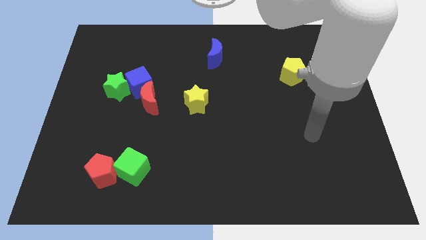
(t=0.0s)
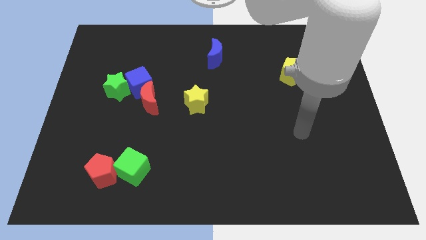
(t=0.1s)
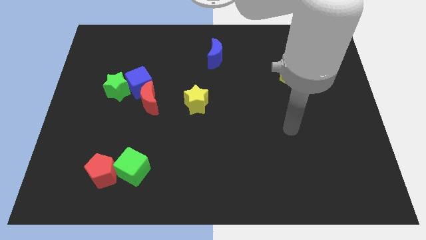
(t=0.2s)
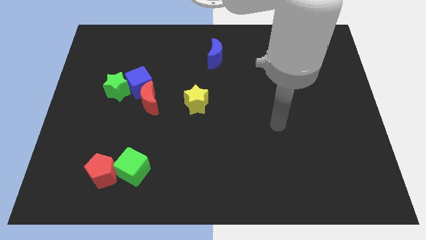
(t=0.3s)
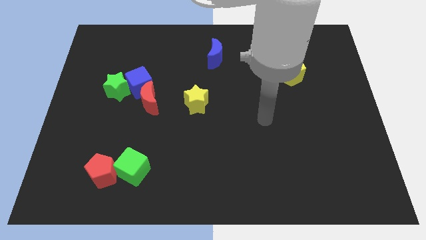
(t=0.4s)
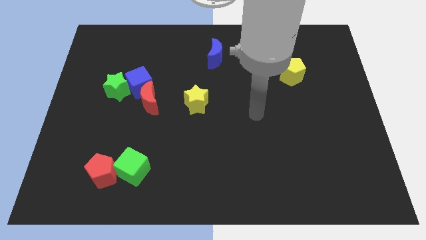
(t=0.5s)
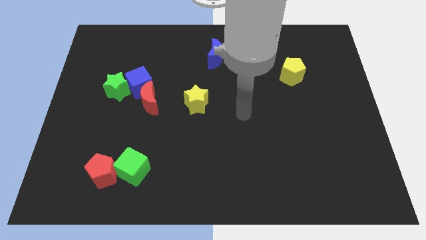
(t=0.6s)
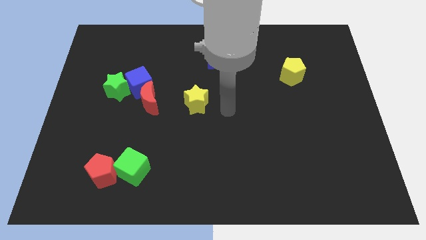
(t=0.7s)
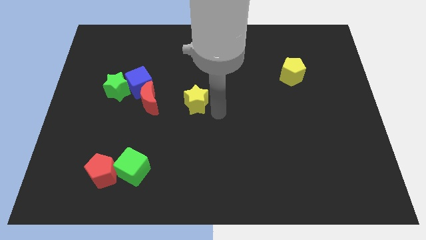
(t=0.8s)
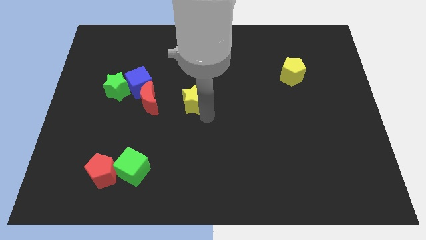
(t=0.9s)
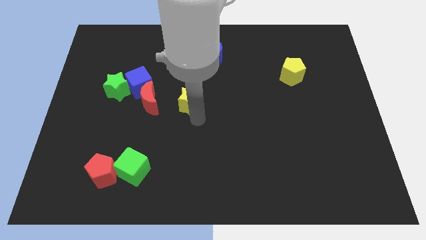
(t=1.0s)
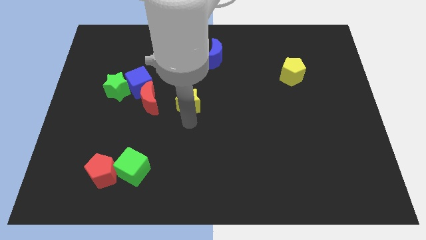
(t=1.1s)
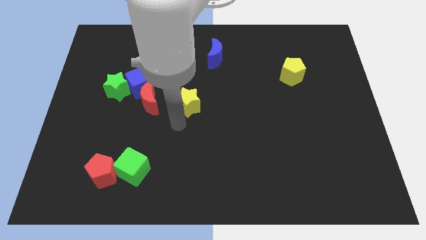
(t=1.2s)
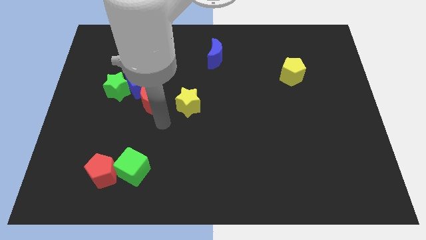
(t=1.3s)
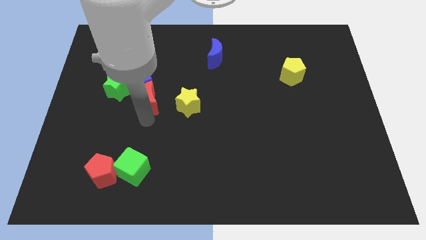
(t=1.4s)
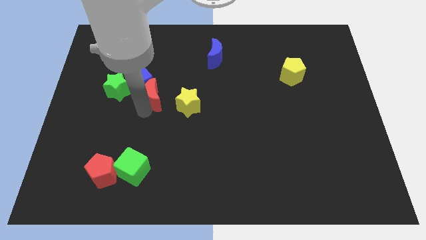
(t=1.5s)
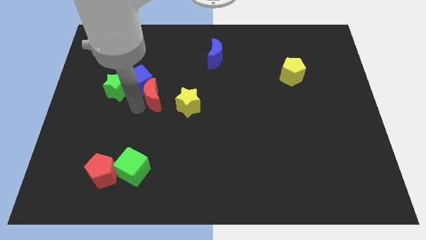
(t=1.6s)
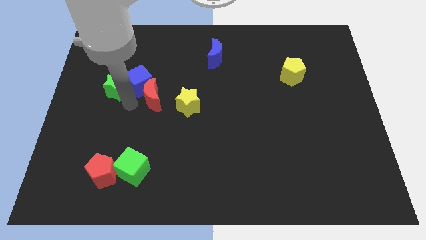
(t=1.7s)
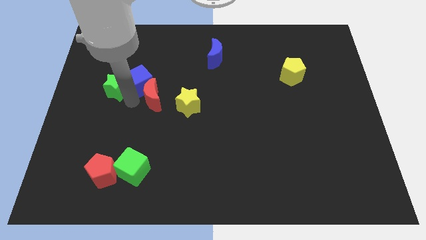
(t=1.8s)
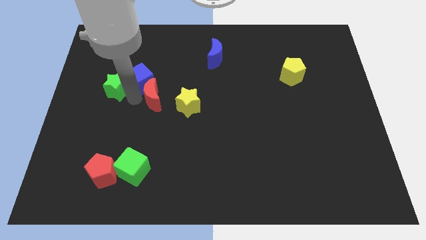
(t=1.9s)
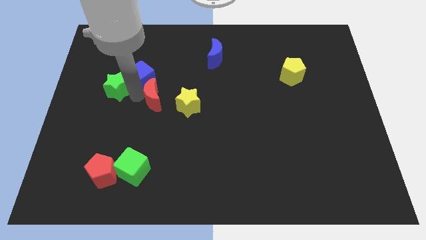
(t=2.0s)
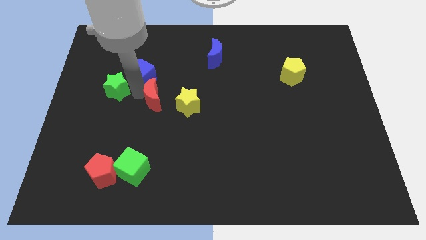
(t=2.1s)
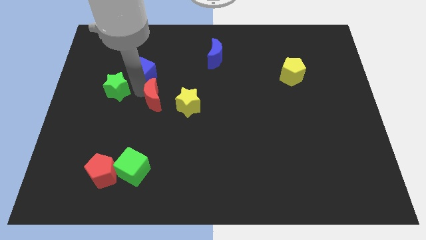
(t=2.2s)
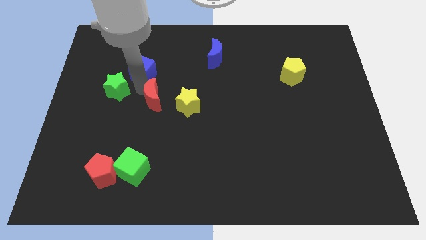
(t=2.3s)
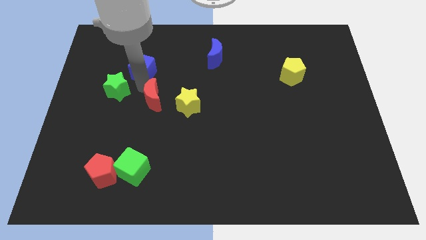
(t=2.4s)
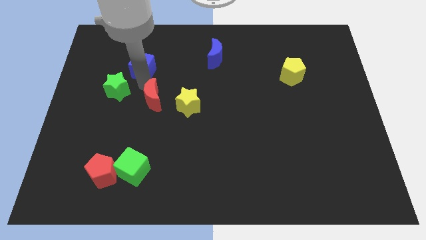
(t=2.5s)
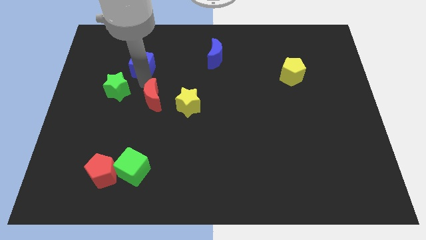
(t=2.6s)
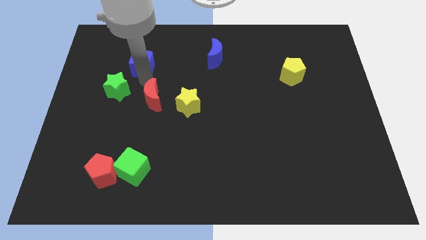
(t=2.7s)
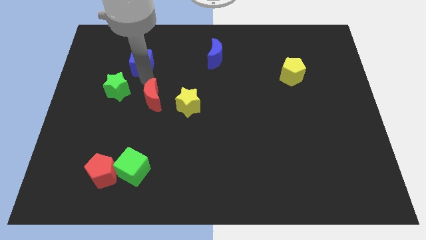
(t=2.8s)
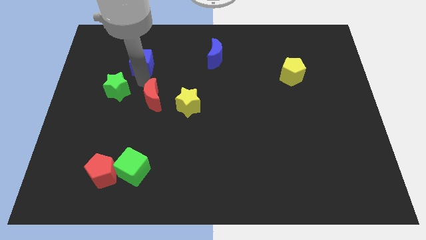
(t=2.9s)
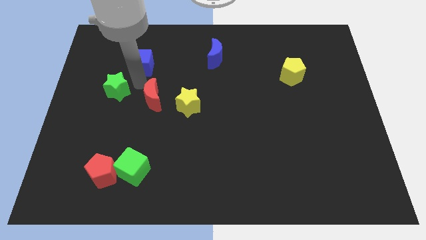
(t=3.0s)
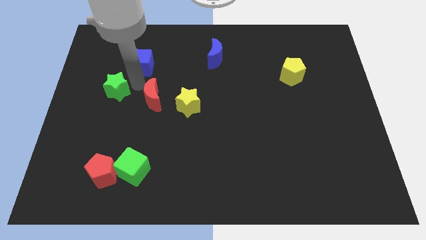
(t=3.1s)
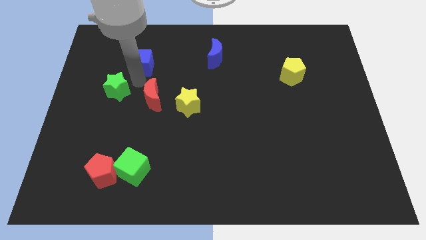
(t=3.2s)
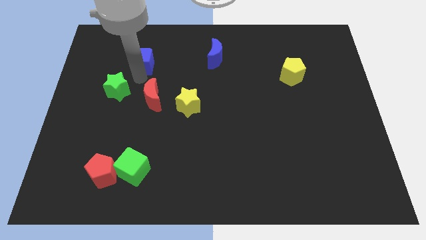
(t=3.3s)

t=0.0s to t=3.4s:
separate the blue cube from the green star and red moon

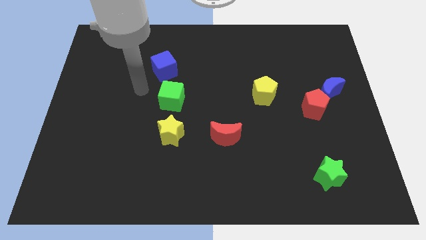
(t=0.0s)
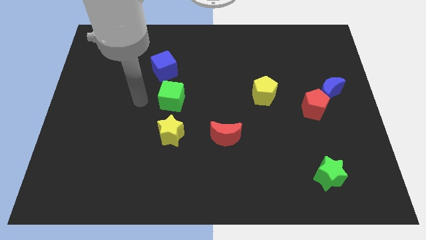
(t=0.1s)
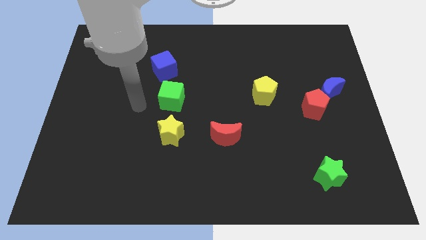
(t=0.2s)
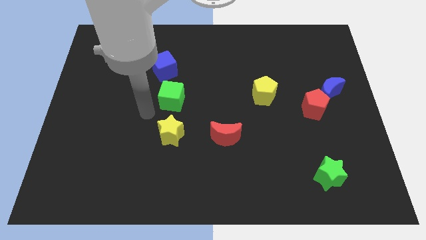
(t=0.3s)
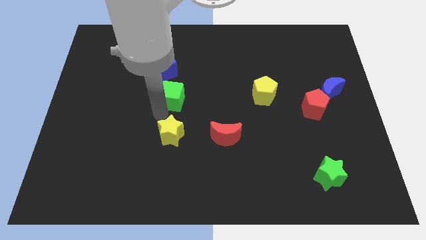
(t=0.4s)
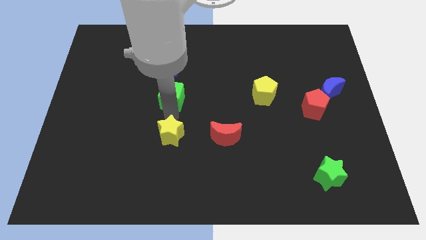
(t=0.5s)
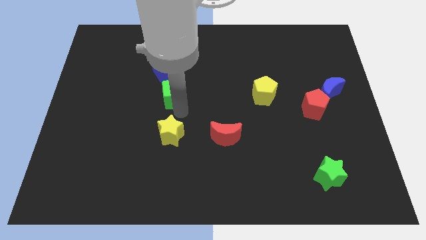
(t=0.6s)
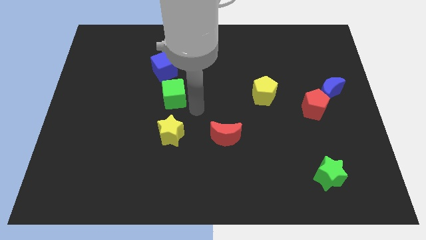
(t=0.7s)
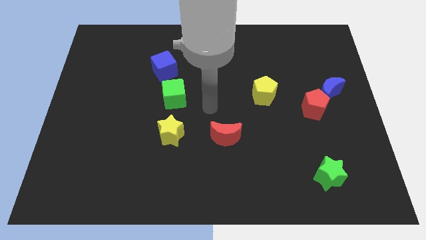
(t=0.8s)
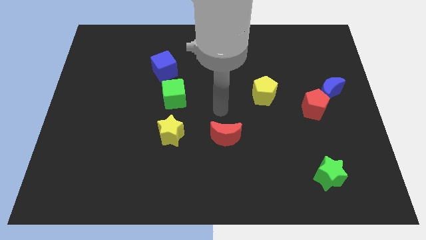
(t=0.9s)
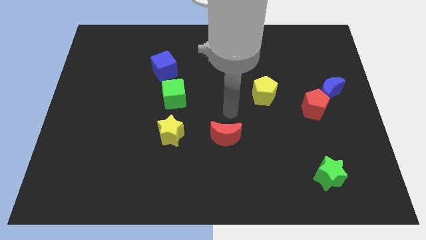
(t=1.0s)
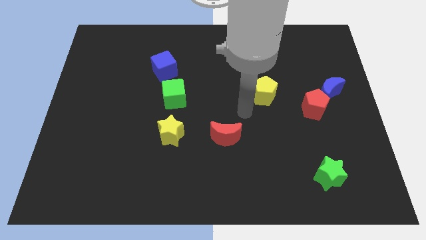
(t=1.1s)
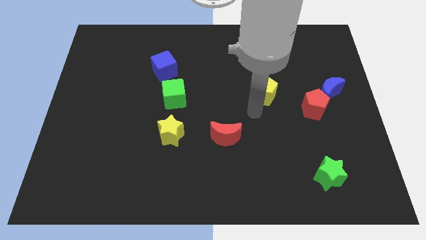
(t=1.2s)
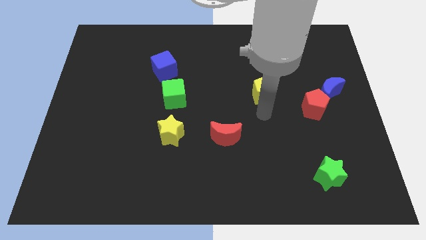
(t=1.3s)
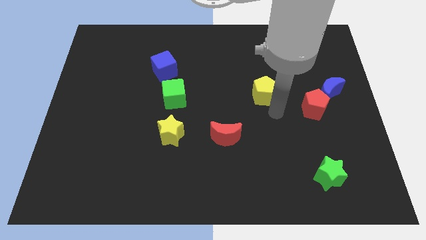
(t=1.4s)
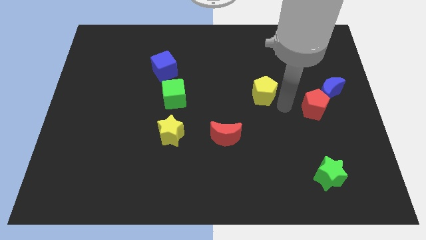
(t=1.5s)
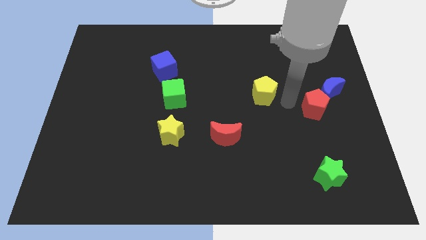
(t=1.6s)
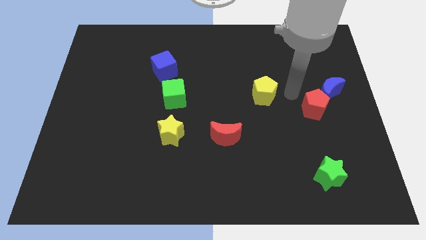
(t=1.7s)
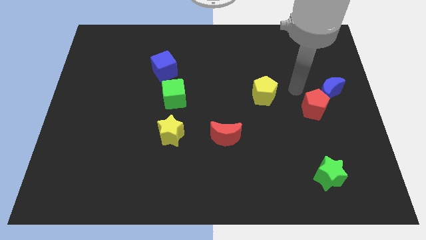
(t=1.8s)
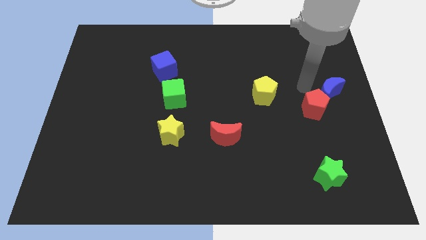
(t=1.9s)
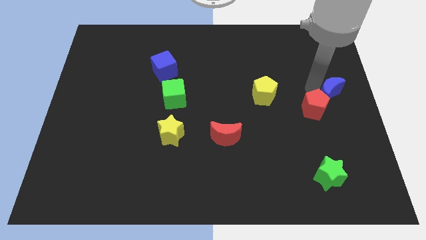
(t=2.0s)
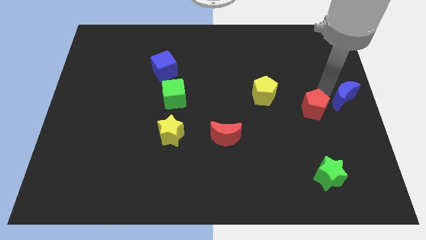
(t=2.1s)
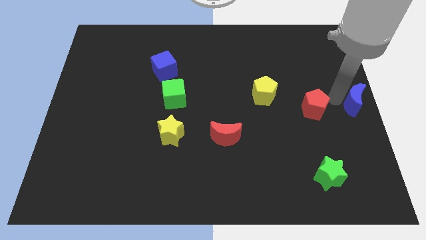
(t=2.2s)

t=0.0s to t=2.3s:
move the red pentagon away from the blue moon

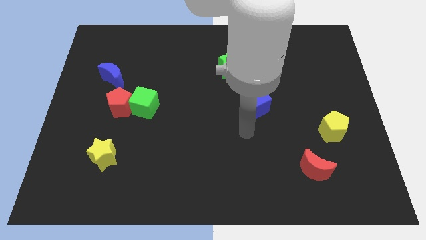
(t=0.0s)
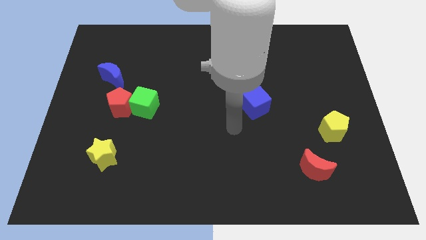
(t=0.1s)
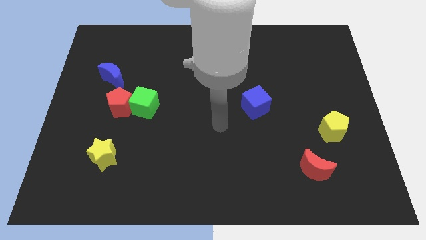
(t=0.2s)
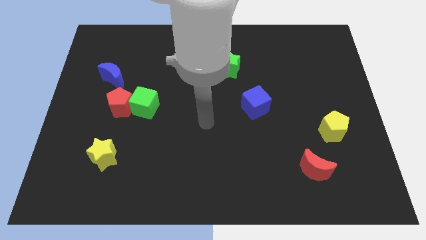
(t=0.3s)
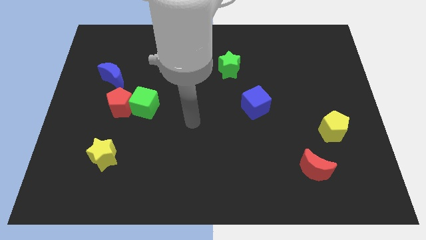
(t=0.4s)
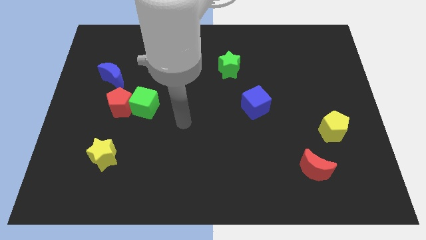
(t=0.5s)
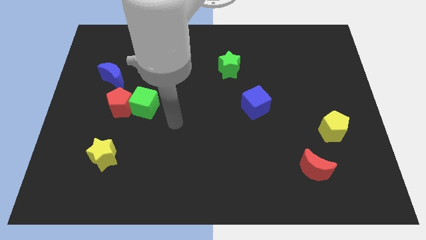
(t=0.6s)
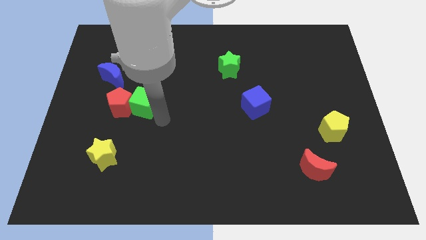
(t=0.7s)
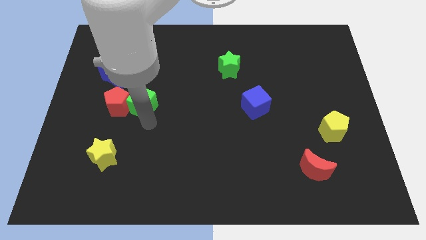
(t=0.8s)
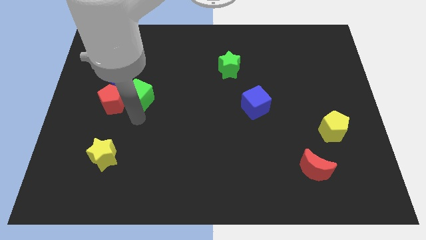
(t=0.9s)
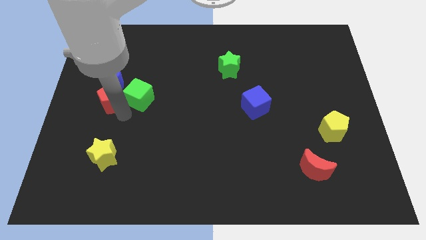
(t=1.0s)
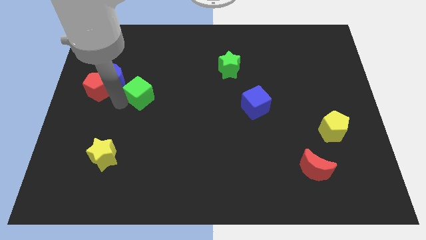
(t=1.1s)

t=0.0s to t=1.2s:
separate the green cube from the red pentagon

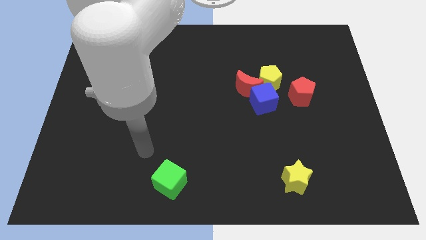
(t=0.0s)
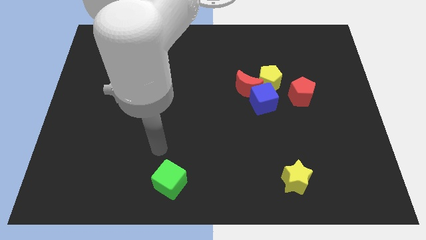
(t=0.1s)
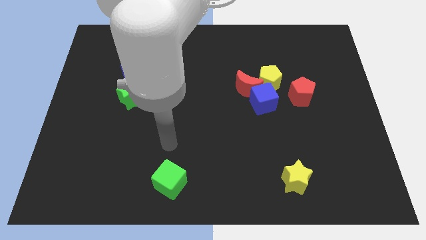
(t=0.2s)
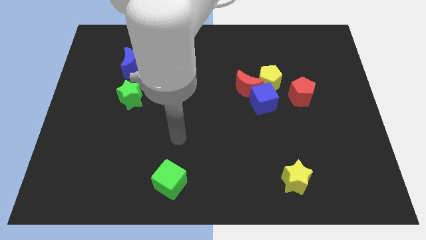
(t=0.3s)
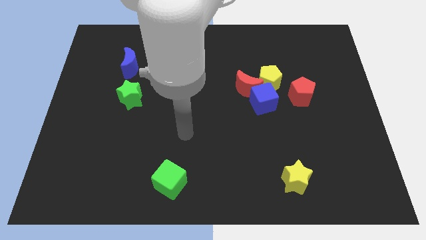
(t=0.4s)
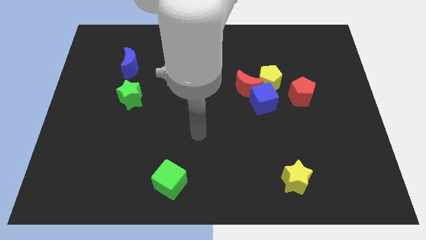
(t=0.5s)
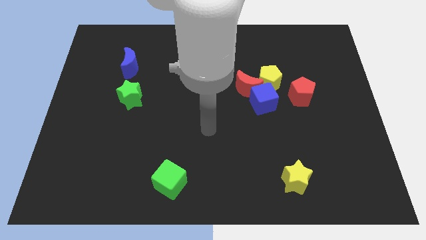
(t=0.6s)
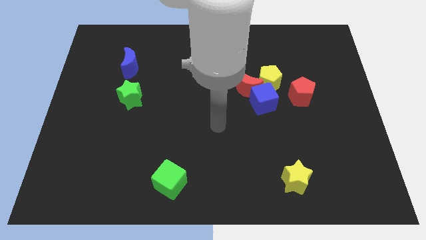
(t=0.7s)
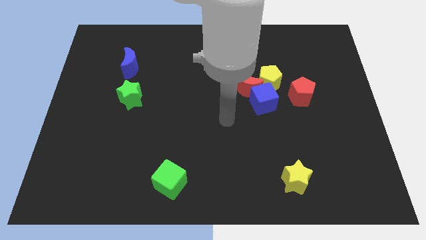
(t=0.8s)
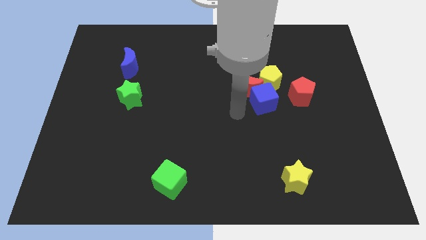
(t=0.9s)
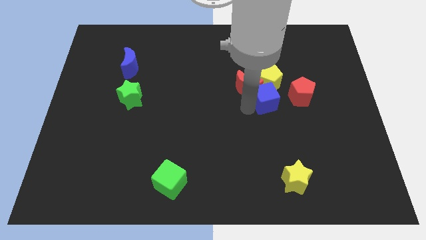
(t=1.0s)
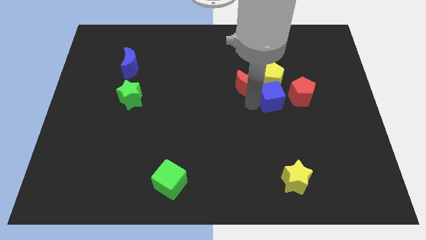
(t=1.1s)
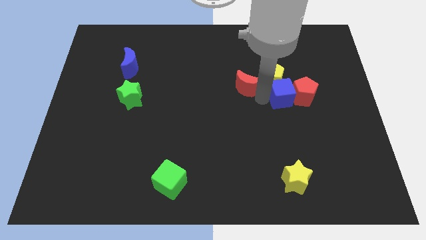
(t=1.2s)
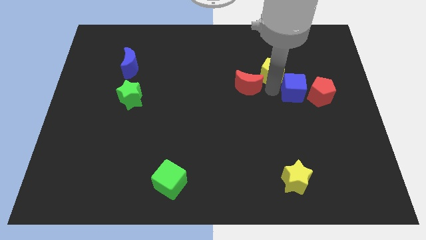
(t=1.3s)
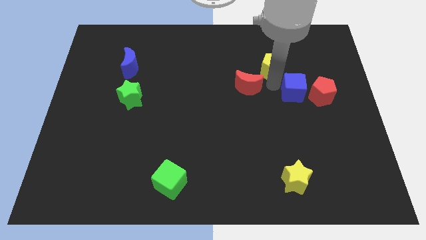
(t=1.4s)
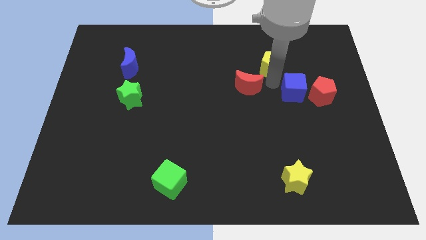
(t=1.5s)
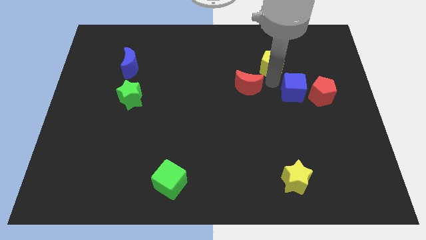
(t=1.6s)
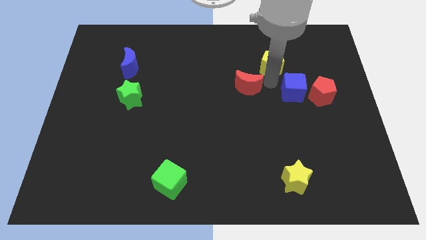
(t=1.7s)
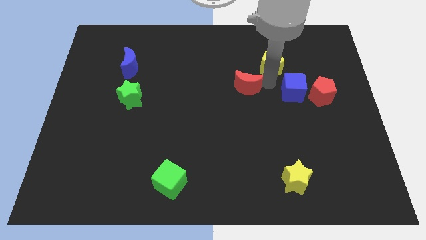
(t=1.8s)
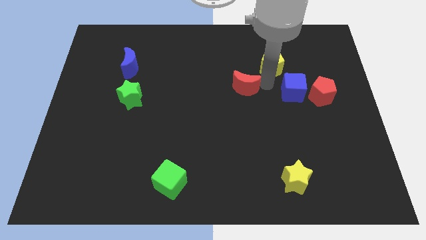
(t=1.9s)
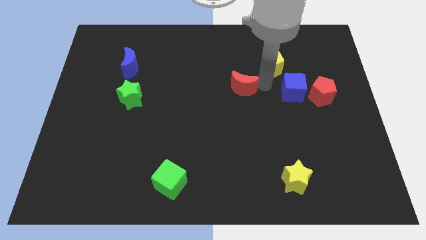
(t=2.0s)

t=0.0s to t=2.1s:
separate the red moon from the blue cube and yellow pentagon

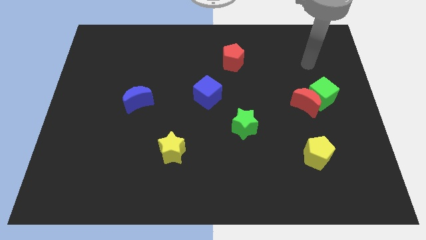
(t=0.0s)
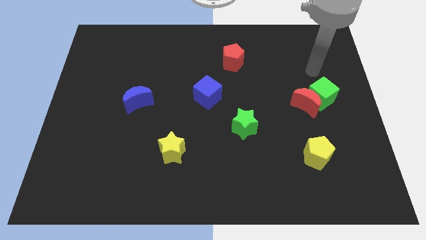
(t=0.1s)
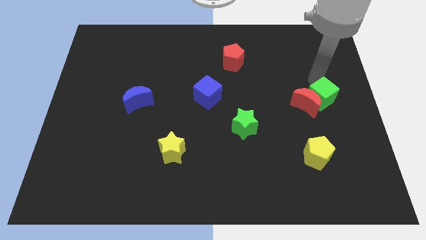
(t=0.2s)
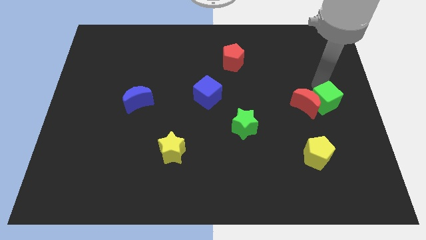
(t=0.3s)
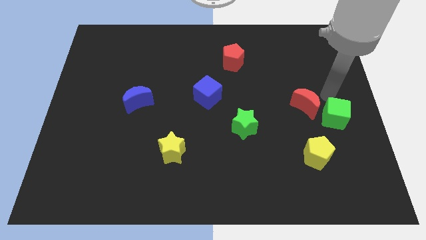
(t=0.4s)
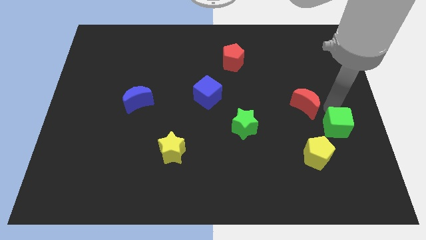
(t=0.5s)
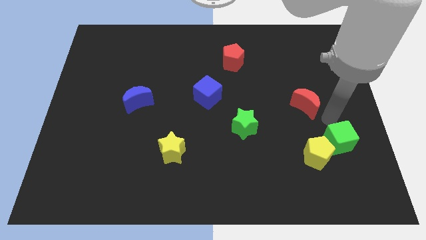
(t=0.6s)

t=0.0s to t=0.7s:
move the red moon away from the green cube
